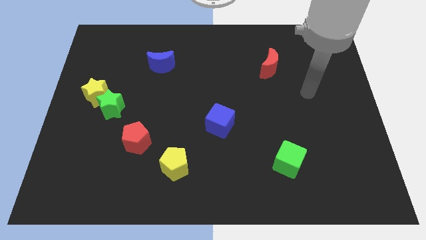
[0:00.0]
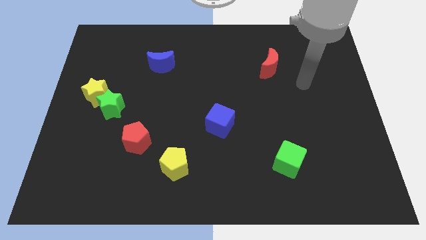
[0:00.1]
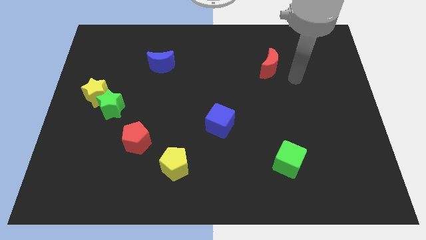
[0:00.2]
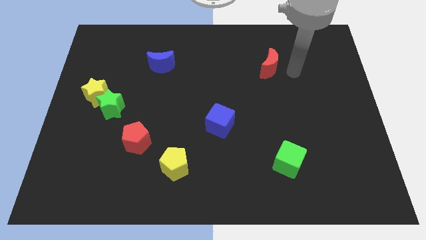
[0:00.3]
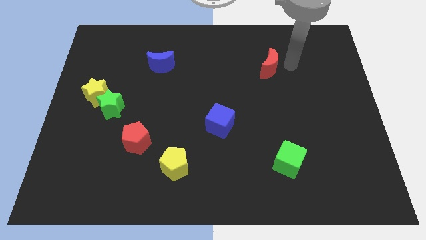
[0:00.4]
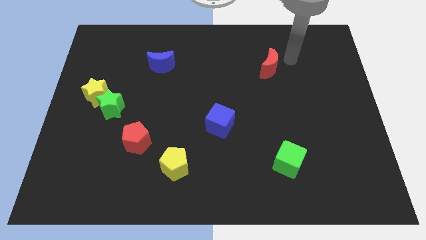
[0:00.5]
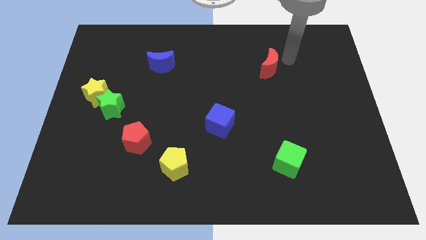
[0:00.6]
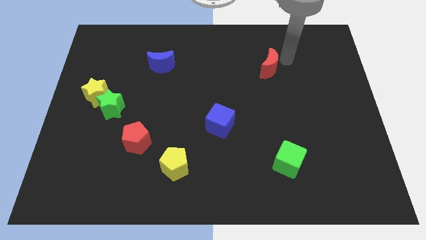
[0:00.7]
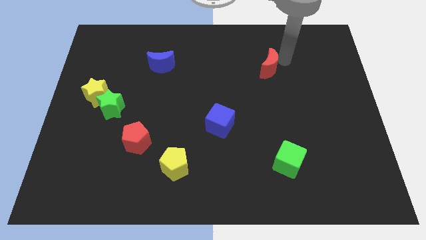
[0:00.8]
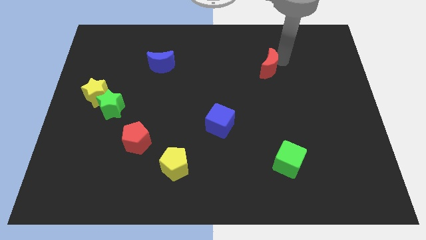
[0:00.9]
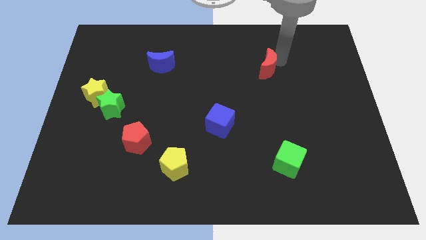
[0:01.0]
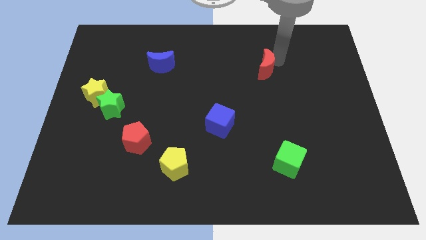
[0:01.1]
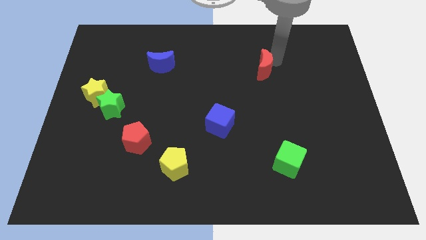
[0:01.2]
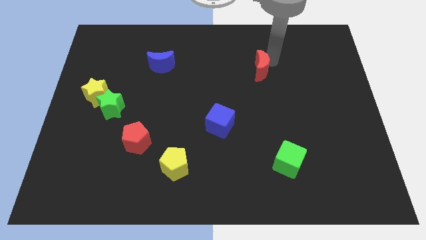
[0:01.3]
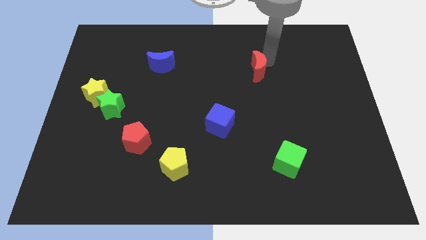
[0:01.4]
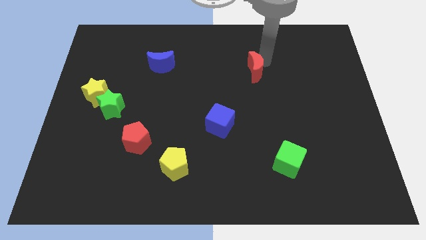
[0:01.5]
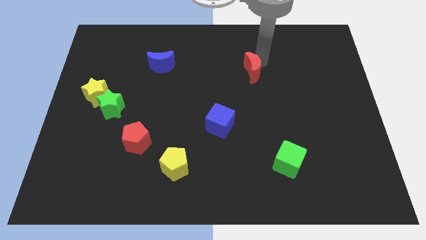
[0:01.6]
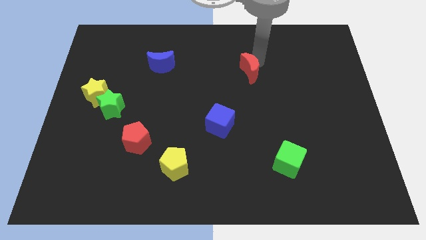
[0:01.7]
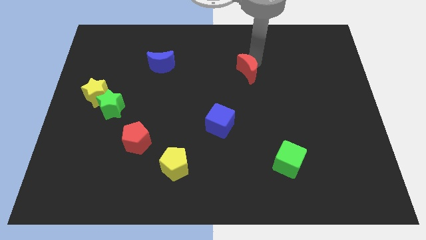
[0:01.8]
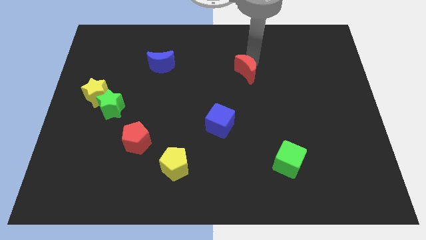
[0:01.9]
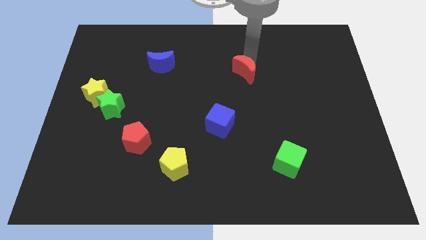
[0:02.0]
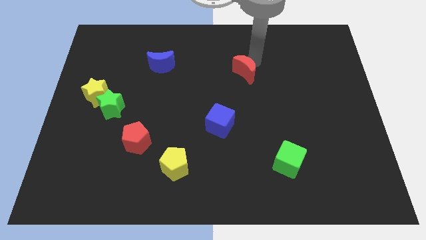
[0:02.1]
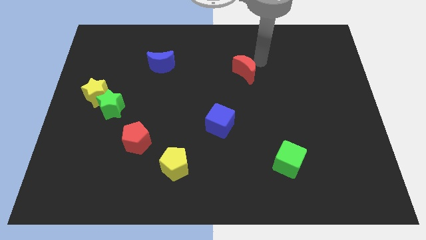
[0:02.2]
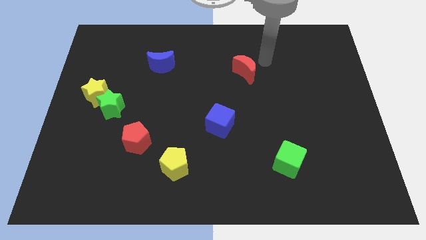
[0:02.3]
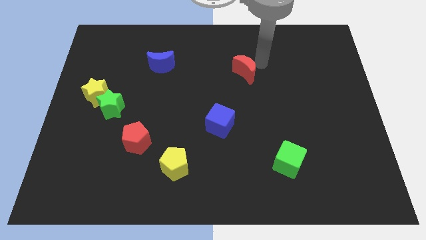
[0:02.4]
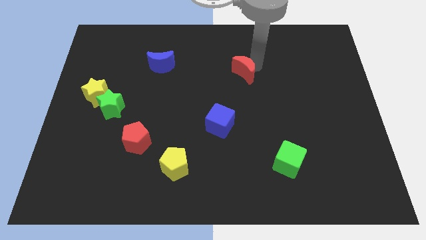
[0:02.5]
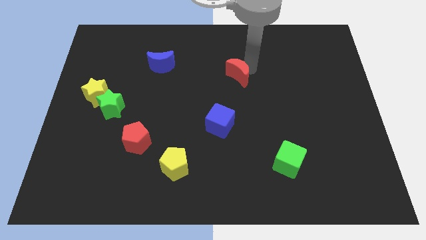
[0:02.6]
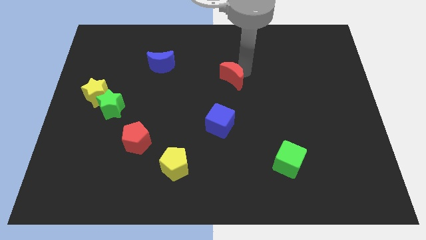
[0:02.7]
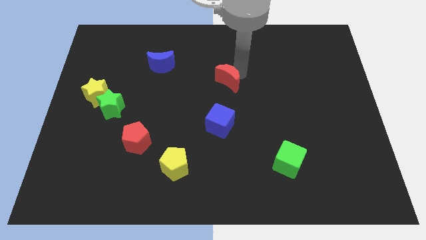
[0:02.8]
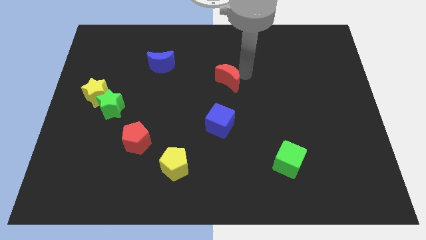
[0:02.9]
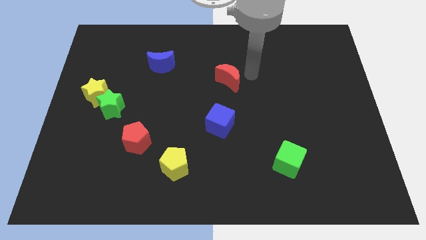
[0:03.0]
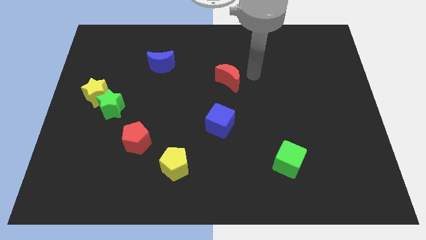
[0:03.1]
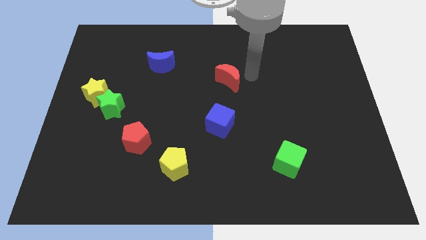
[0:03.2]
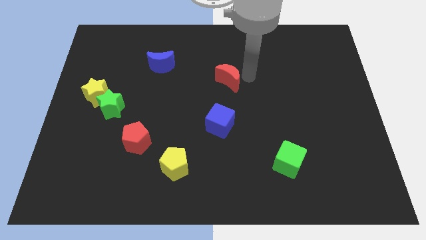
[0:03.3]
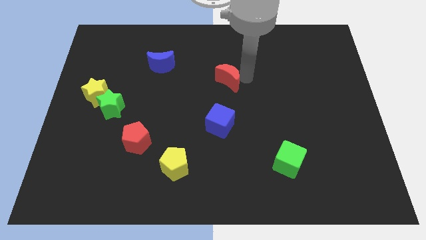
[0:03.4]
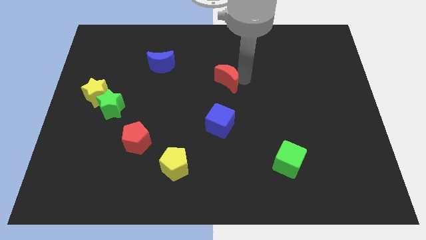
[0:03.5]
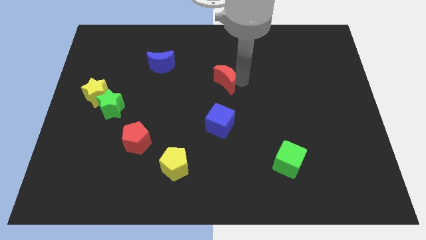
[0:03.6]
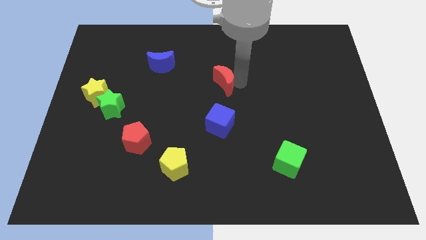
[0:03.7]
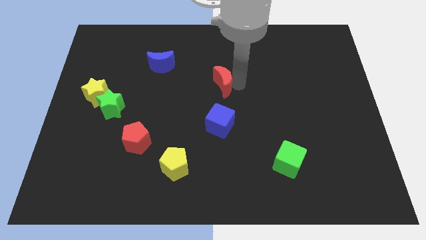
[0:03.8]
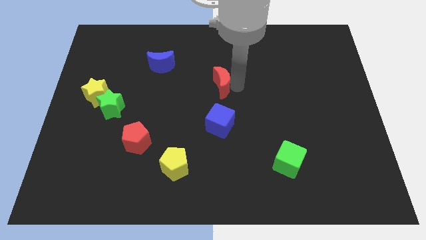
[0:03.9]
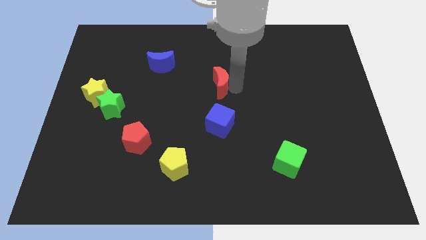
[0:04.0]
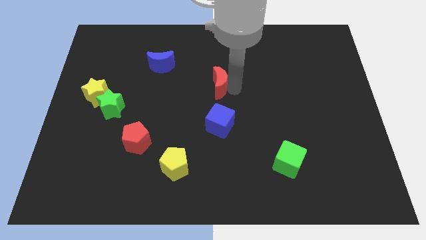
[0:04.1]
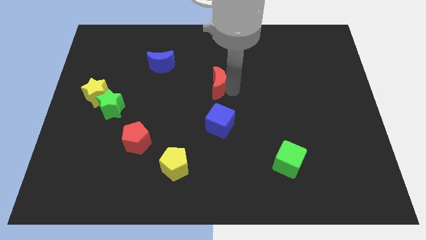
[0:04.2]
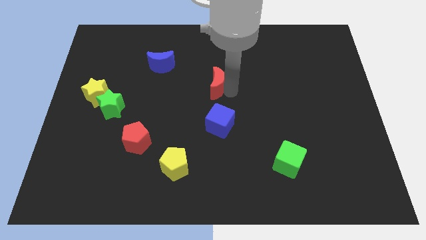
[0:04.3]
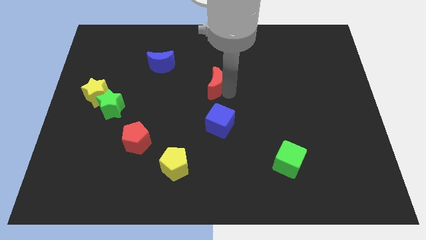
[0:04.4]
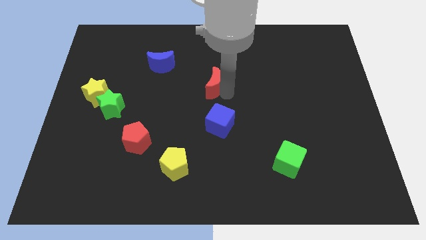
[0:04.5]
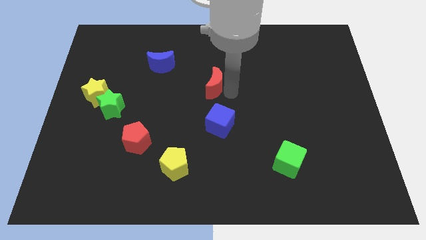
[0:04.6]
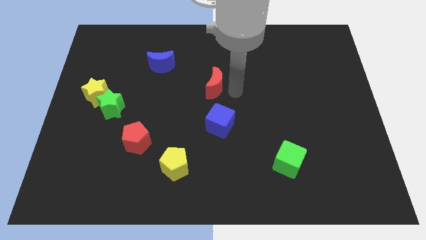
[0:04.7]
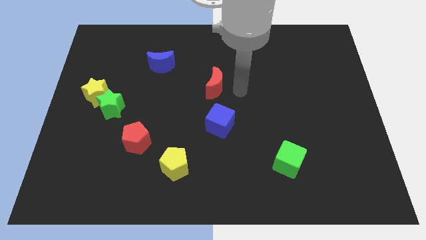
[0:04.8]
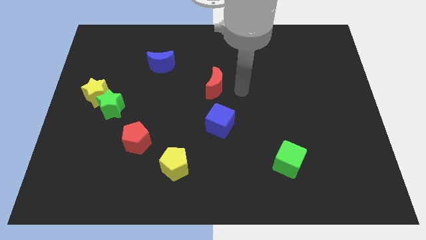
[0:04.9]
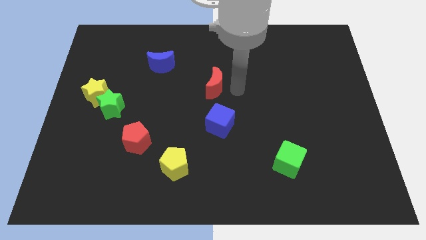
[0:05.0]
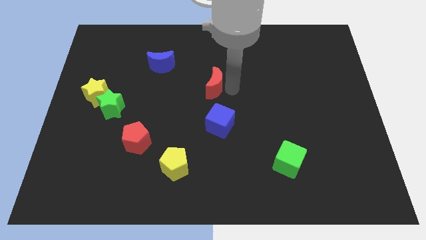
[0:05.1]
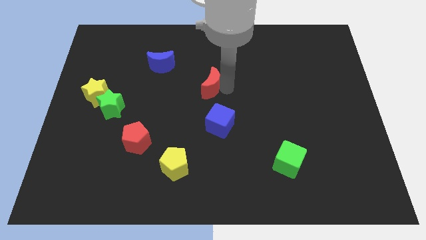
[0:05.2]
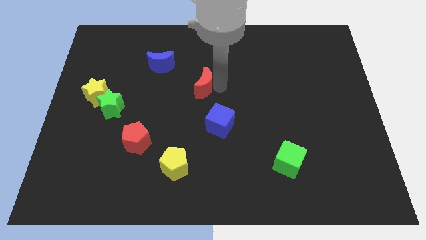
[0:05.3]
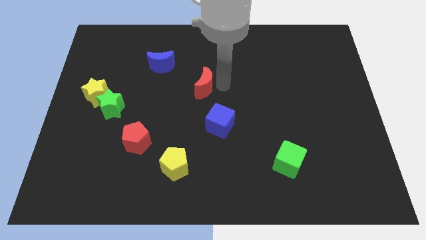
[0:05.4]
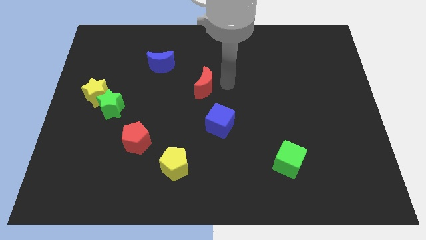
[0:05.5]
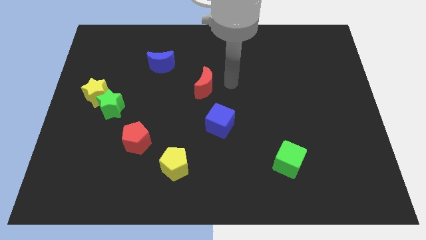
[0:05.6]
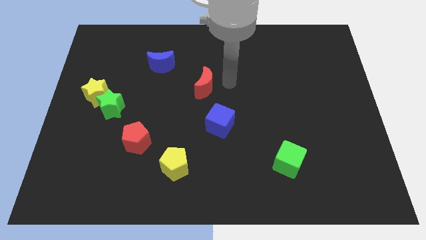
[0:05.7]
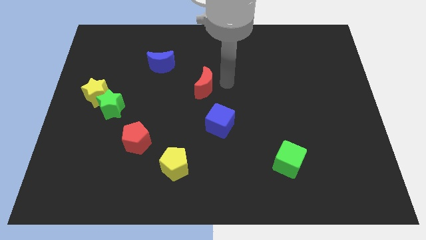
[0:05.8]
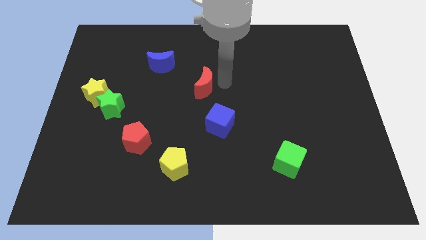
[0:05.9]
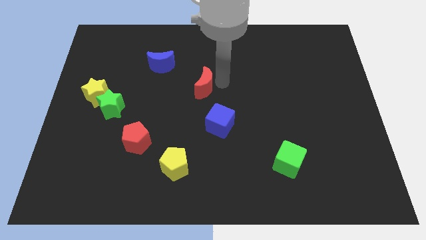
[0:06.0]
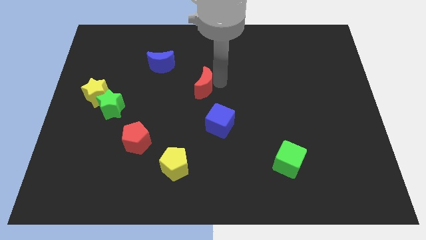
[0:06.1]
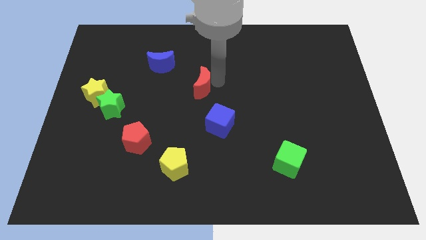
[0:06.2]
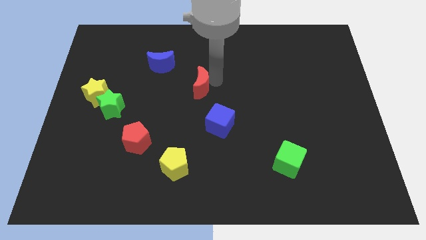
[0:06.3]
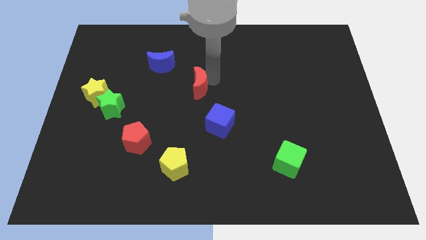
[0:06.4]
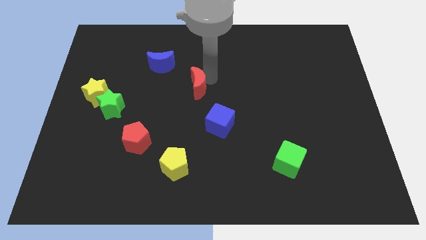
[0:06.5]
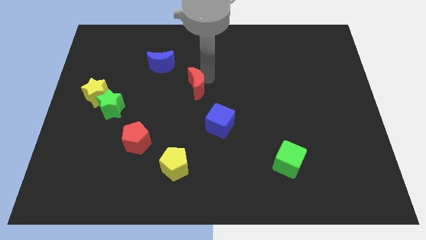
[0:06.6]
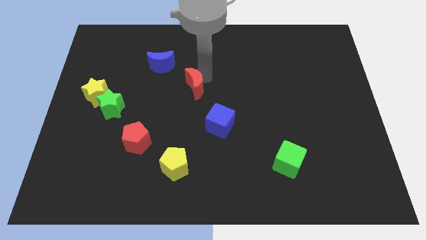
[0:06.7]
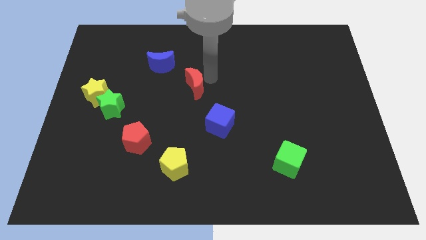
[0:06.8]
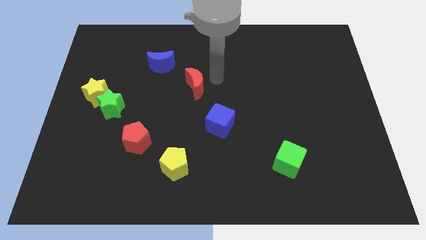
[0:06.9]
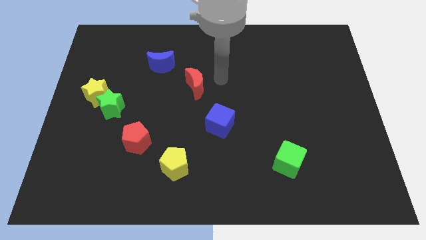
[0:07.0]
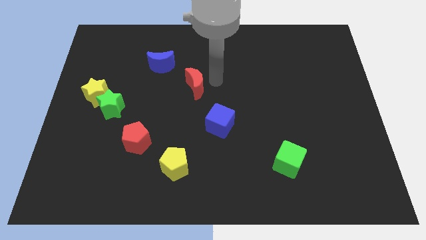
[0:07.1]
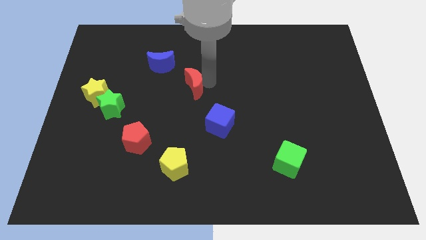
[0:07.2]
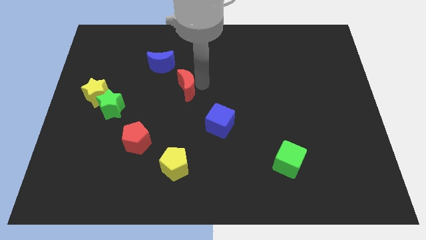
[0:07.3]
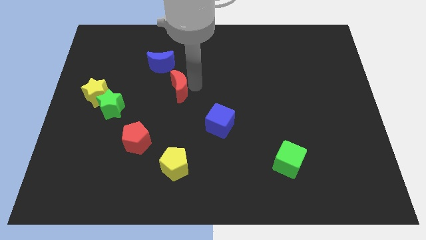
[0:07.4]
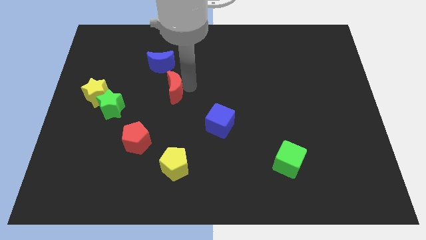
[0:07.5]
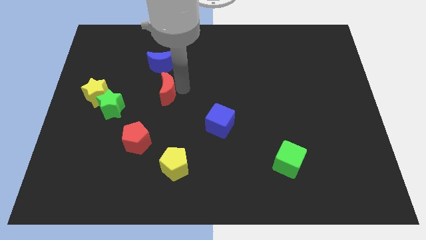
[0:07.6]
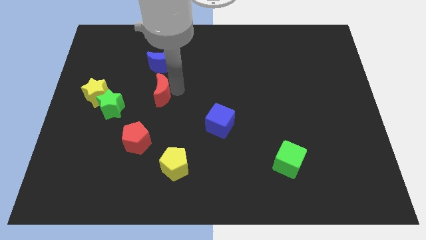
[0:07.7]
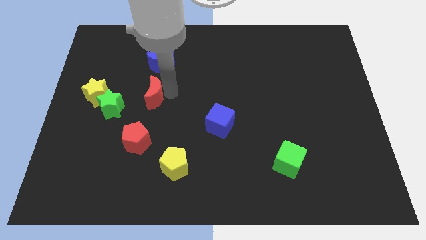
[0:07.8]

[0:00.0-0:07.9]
slide the red moon to the top right of the green star
